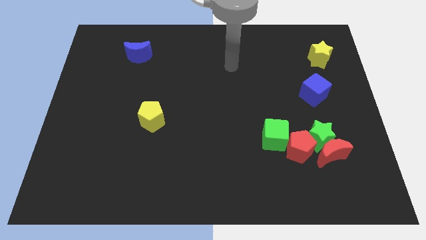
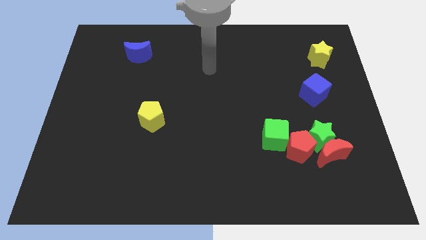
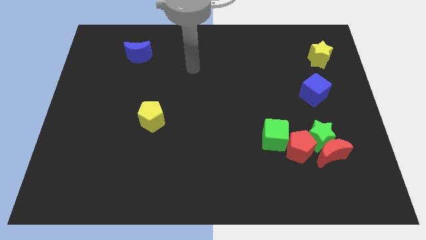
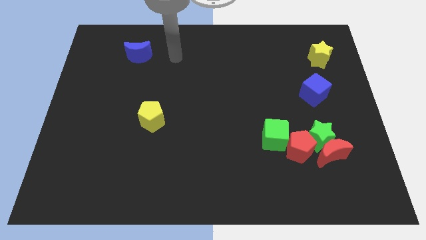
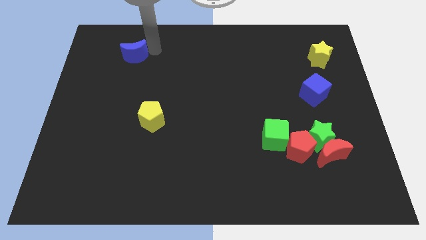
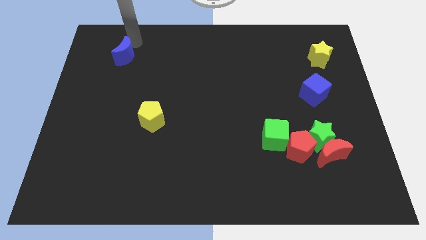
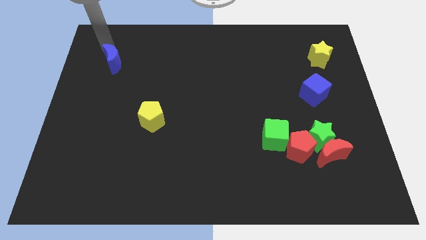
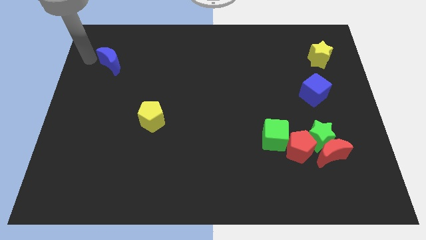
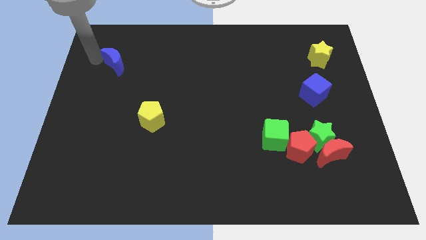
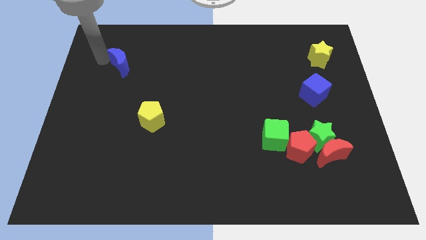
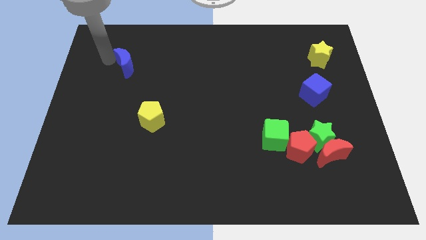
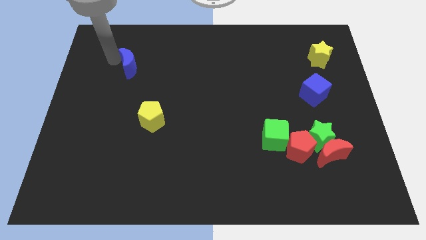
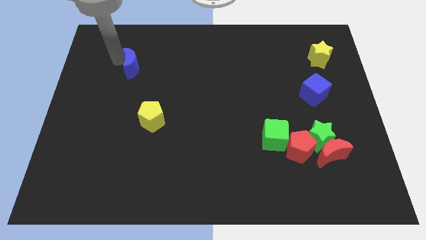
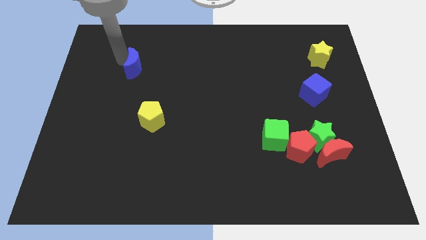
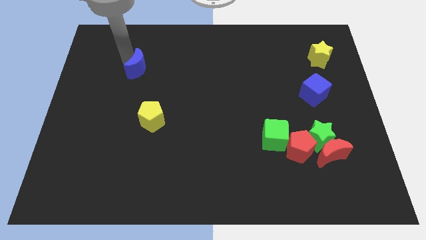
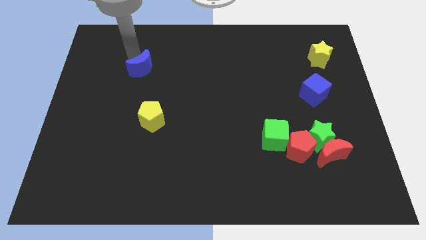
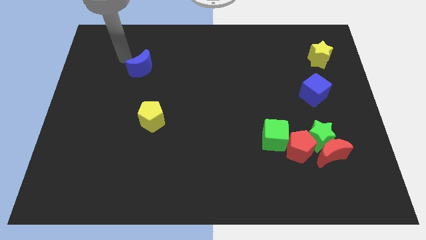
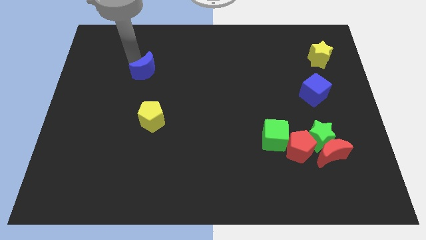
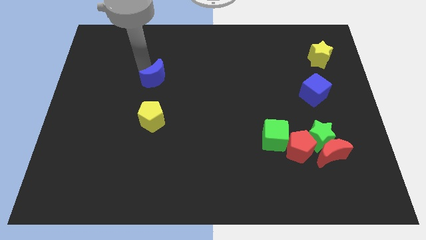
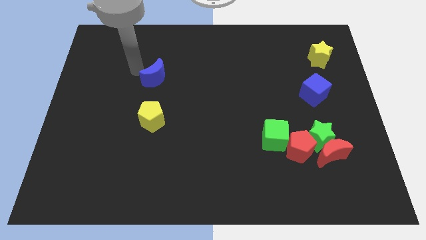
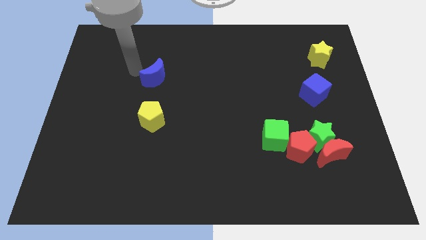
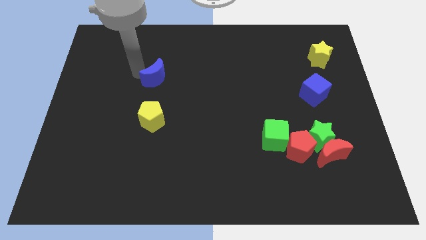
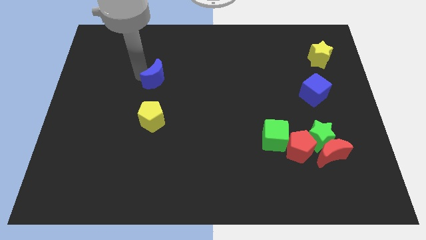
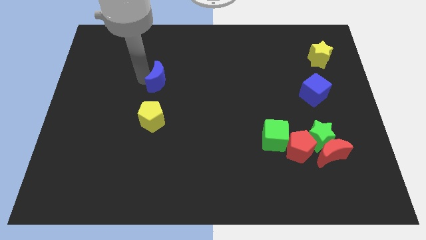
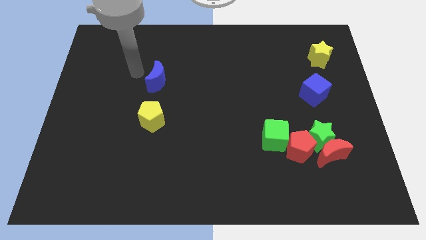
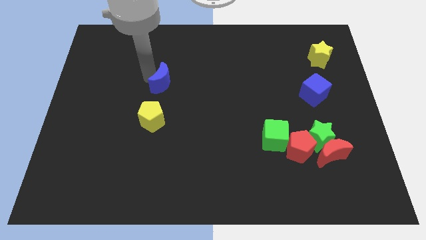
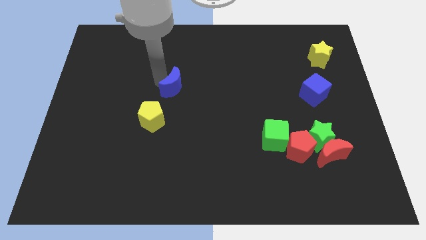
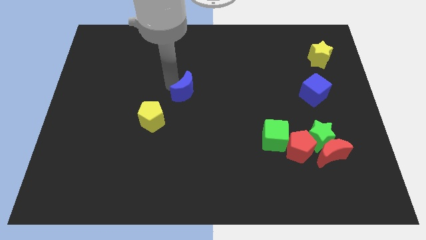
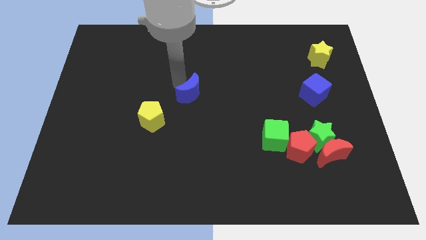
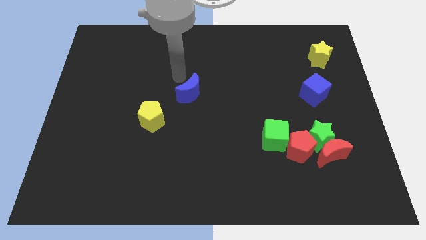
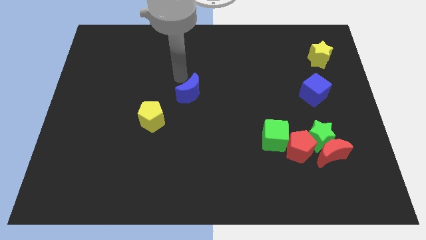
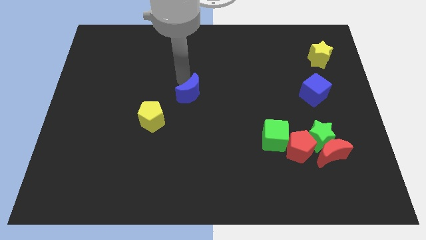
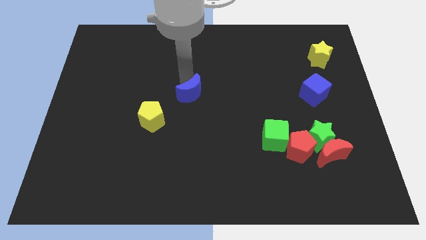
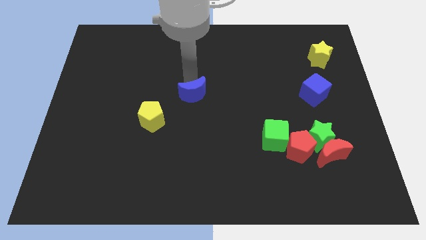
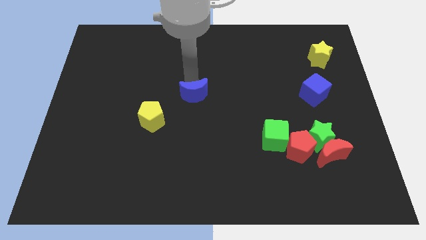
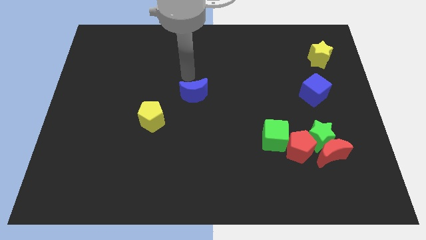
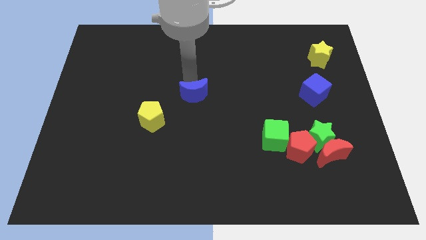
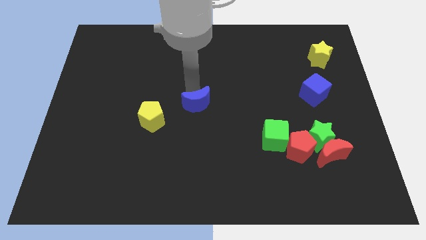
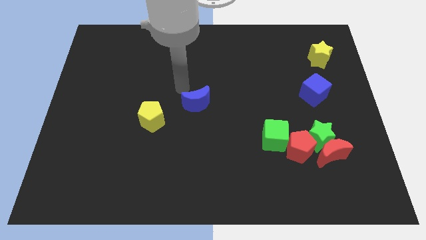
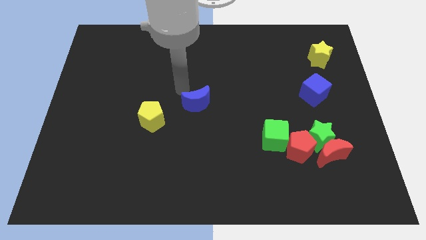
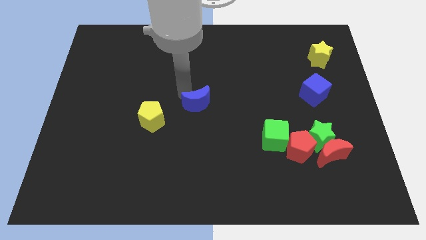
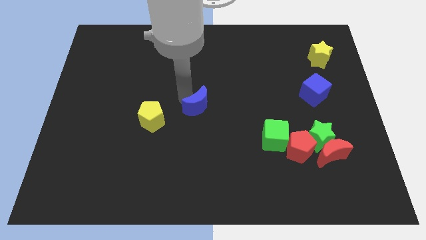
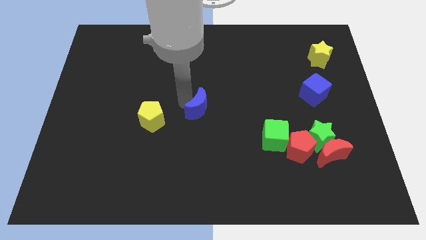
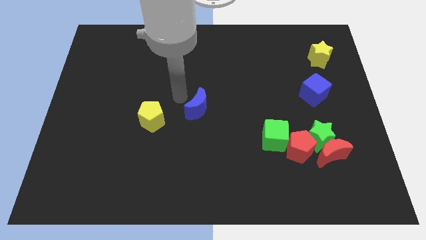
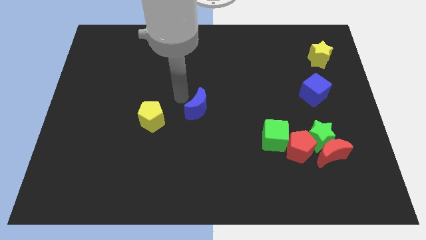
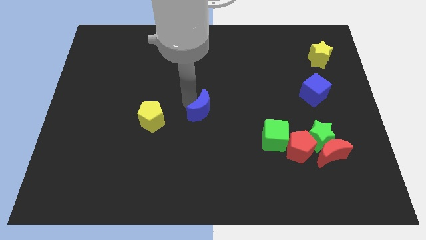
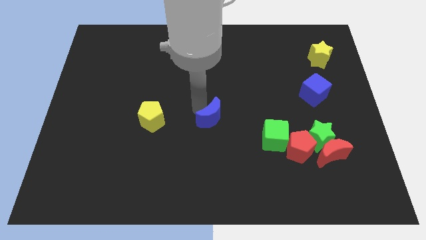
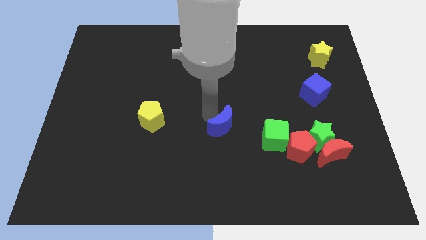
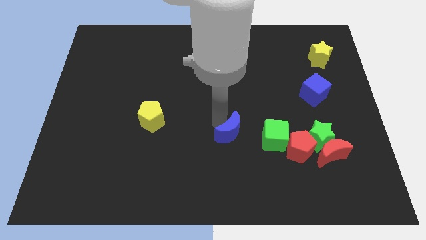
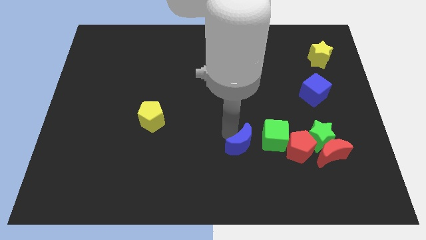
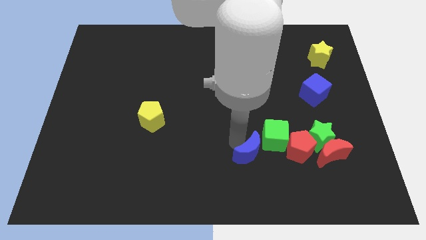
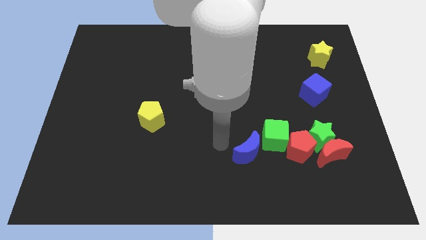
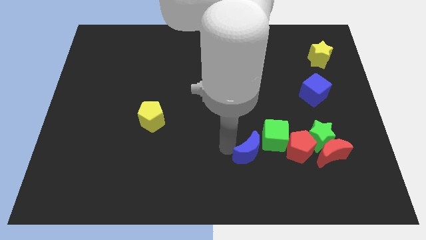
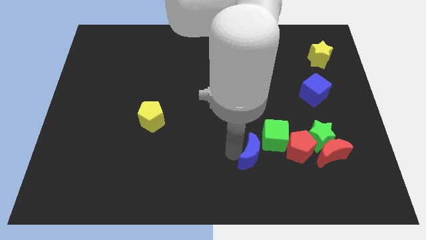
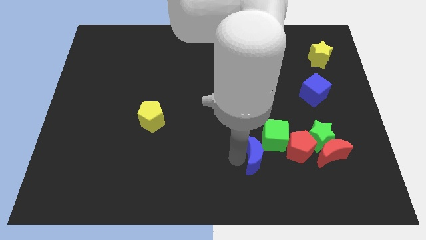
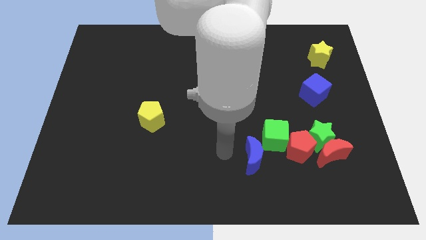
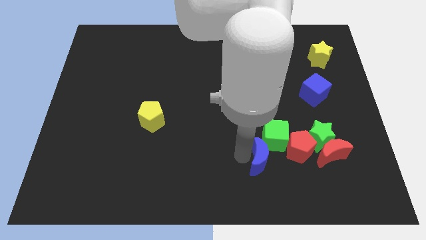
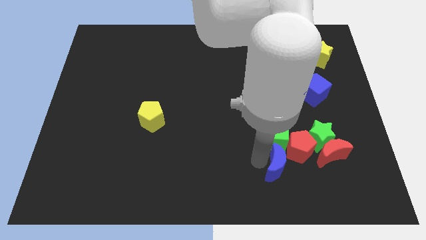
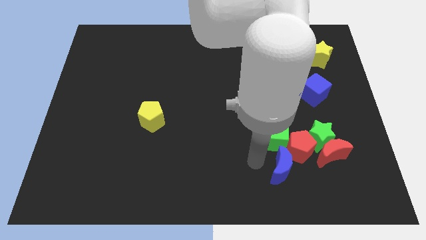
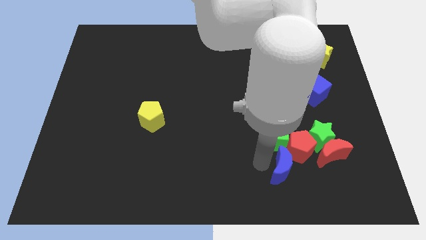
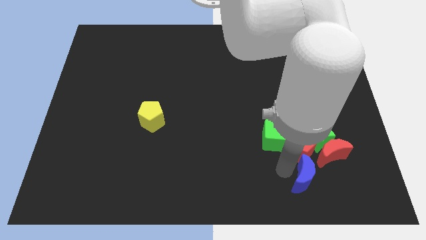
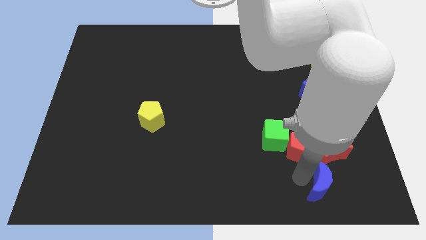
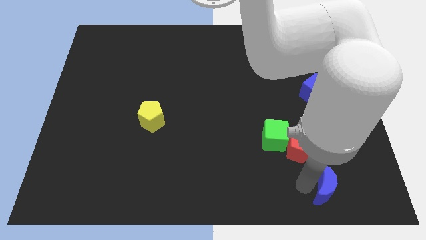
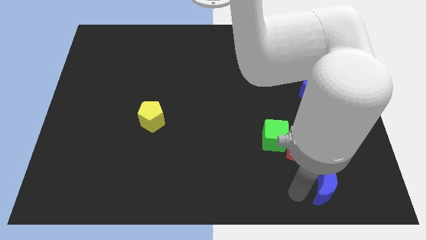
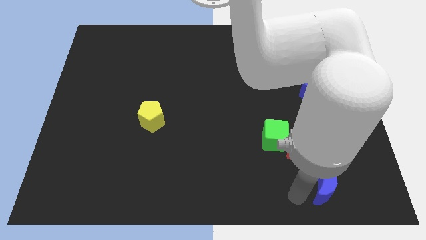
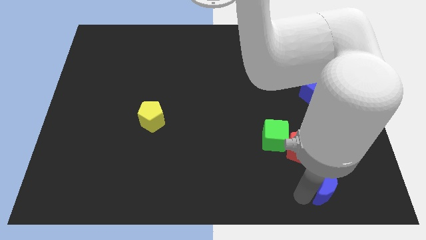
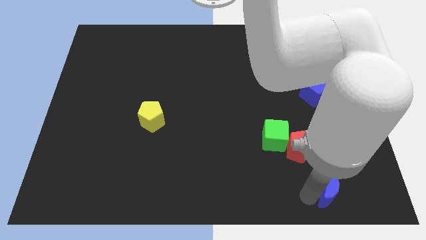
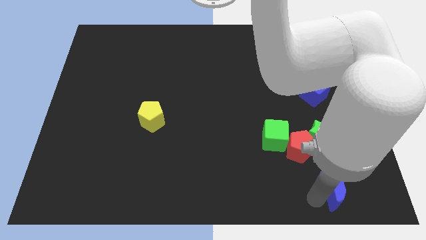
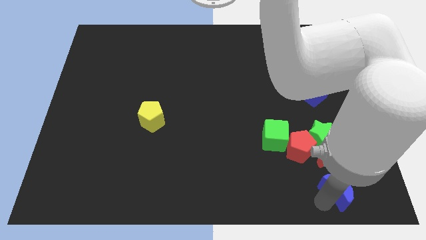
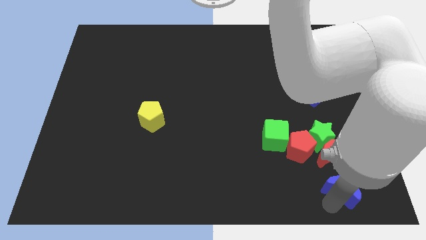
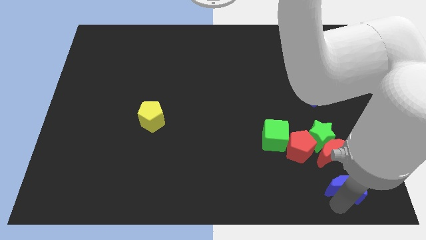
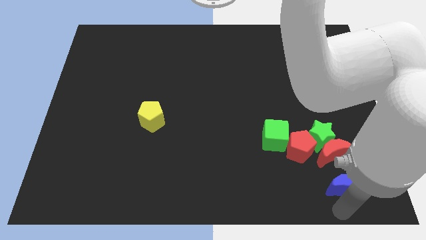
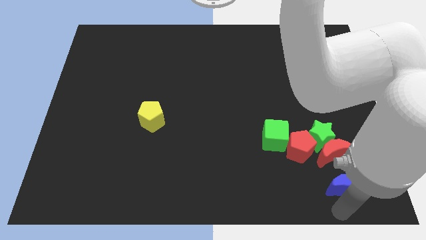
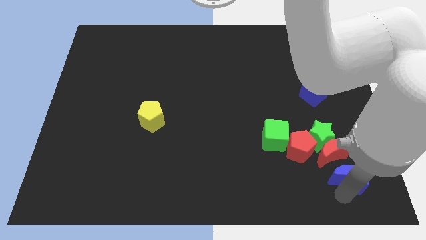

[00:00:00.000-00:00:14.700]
move the blue moon diagonally down and to the right of the green star
